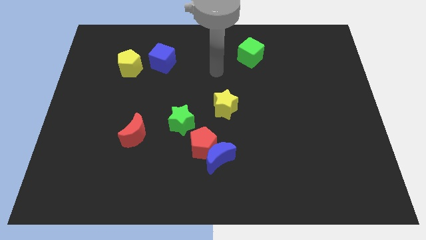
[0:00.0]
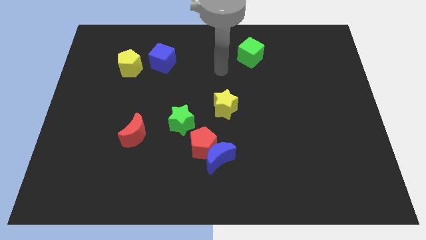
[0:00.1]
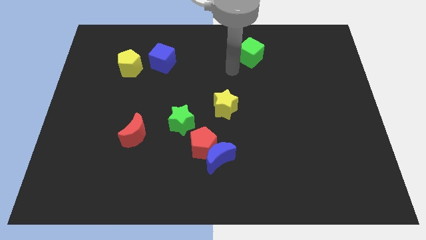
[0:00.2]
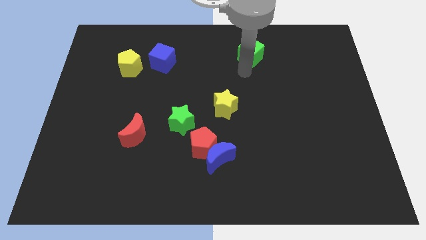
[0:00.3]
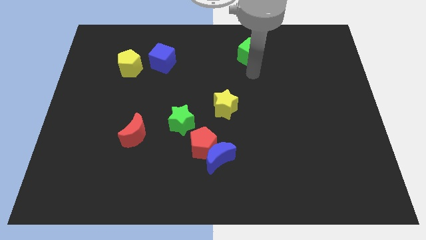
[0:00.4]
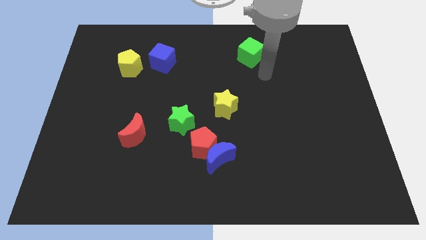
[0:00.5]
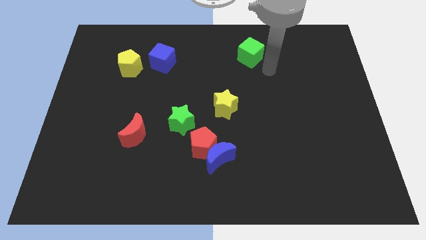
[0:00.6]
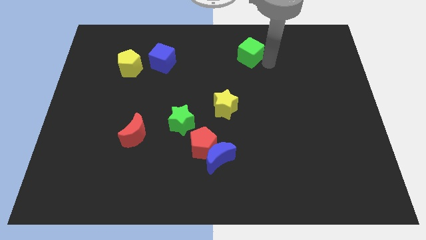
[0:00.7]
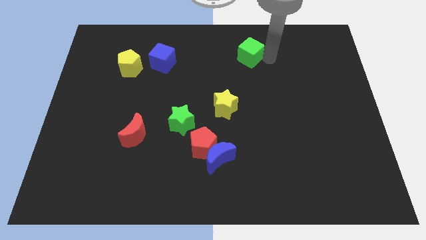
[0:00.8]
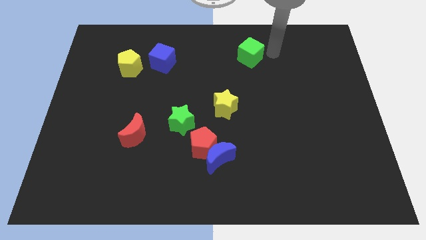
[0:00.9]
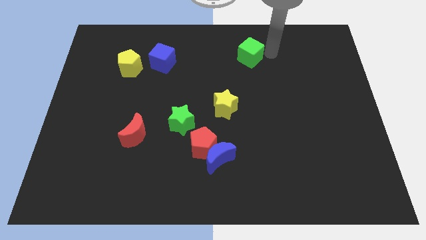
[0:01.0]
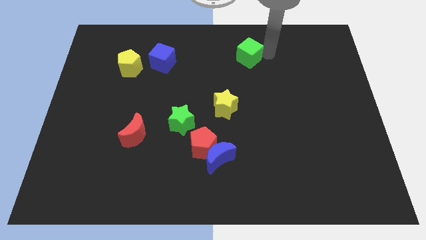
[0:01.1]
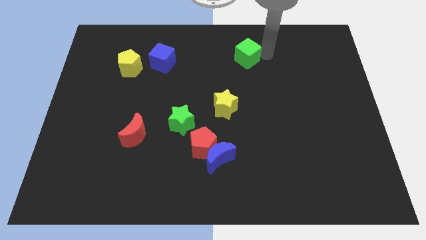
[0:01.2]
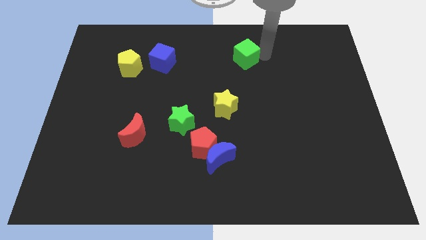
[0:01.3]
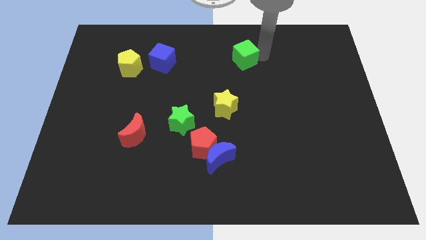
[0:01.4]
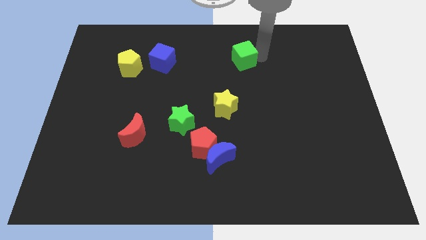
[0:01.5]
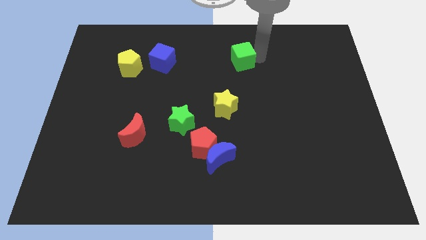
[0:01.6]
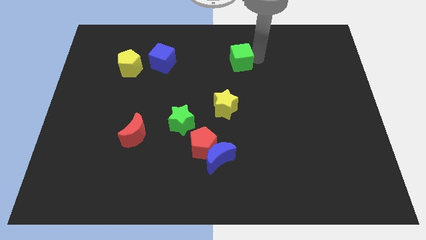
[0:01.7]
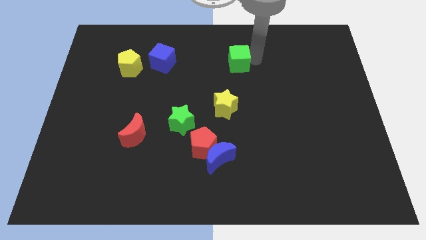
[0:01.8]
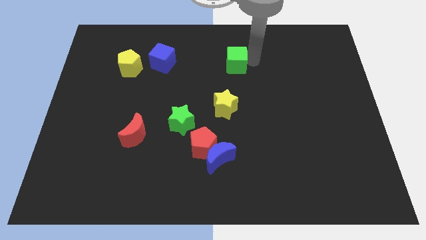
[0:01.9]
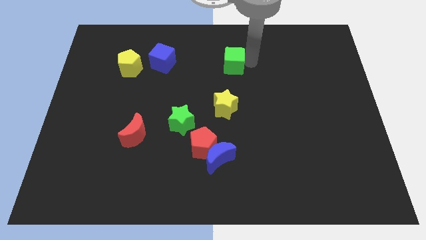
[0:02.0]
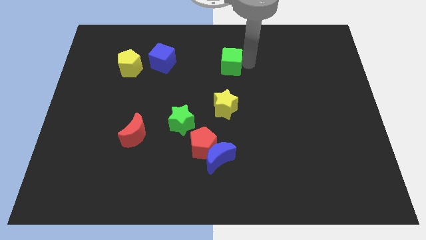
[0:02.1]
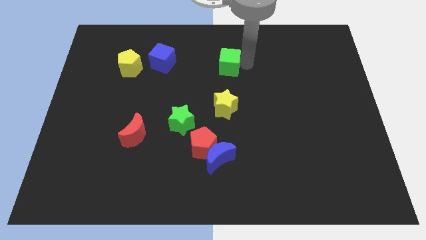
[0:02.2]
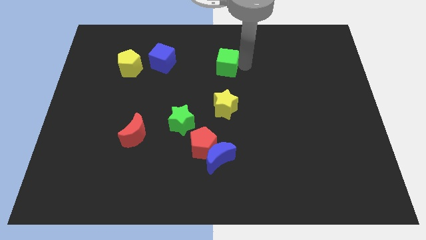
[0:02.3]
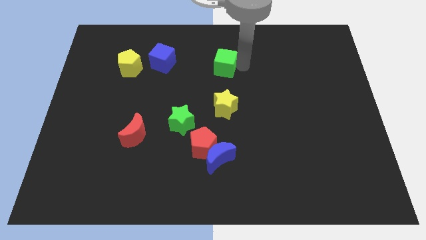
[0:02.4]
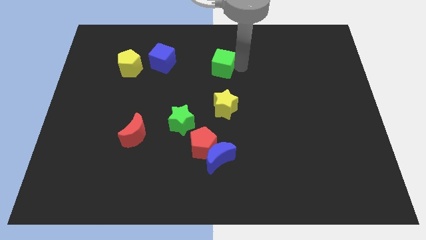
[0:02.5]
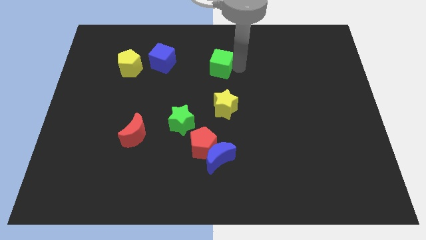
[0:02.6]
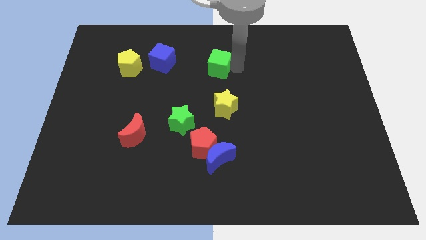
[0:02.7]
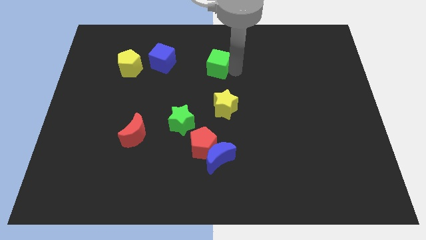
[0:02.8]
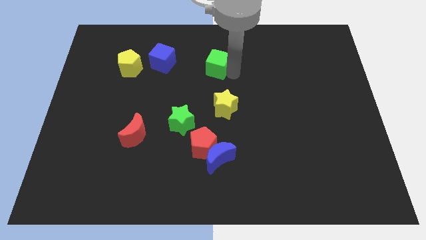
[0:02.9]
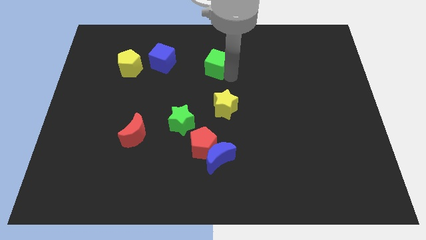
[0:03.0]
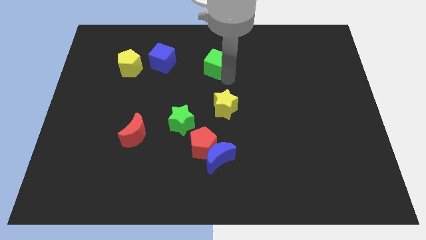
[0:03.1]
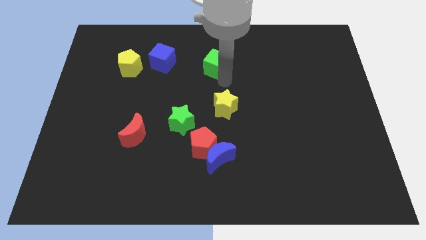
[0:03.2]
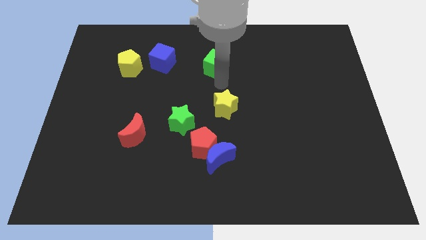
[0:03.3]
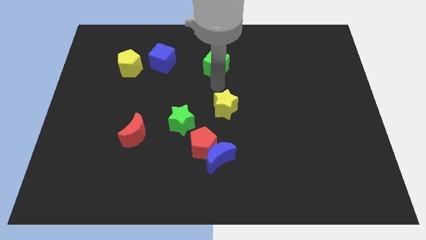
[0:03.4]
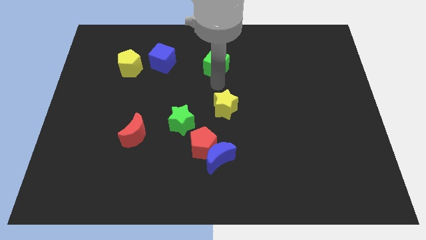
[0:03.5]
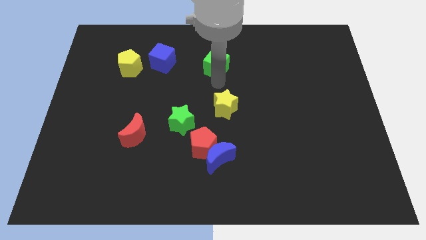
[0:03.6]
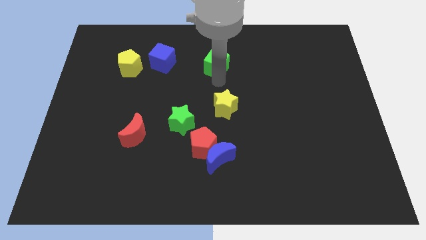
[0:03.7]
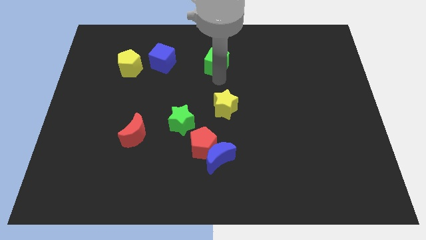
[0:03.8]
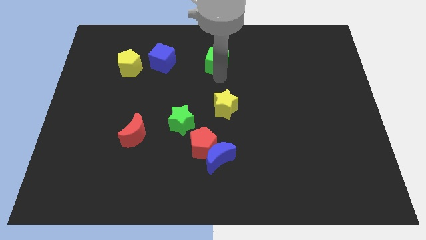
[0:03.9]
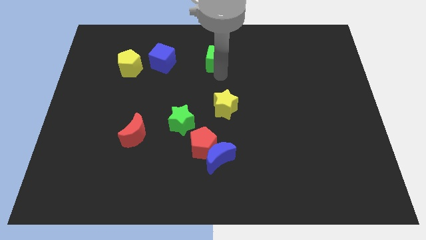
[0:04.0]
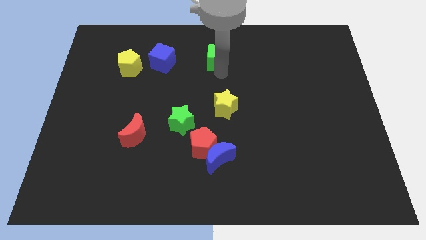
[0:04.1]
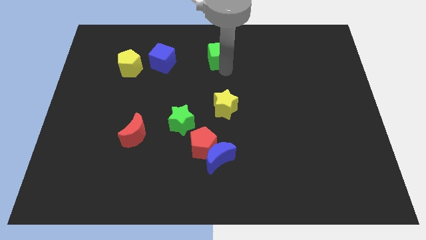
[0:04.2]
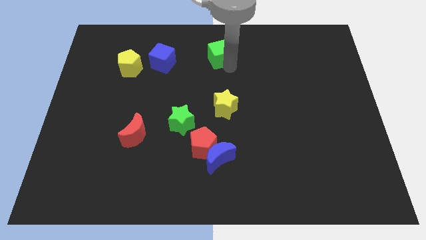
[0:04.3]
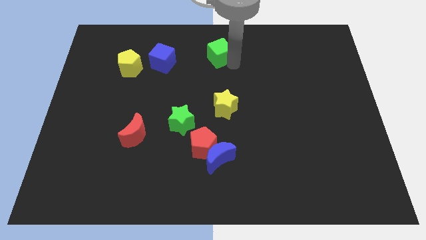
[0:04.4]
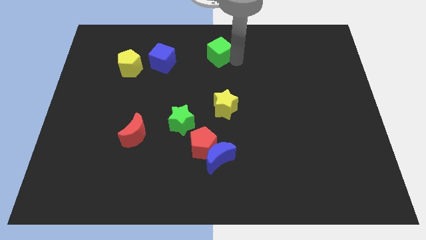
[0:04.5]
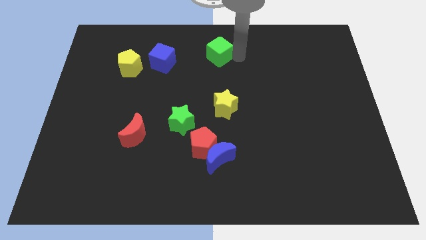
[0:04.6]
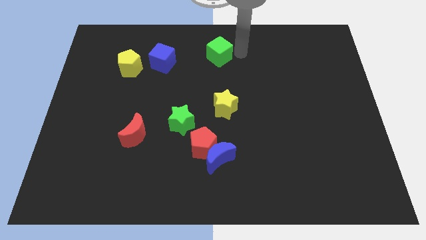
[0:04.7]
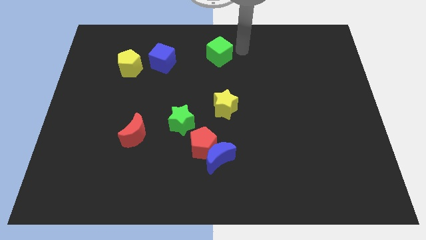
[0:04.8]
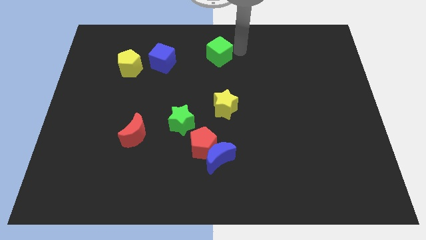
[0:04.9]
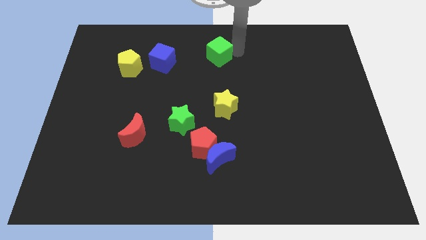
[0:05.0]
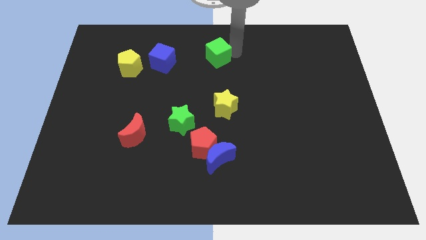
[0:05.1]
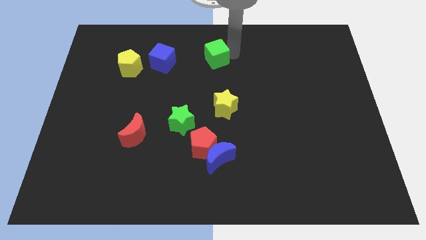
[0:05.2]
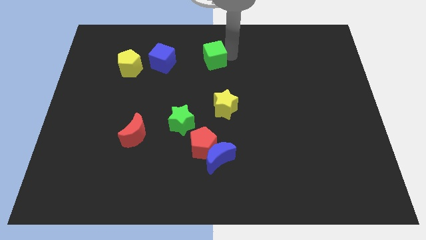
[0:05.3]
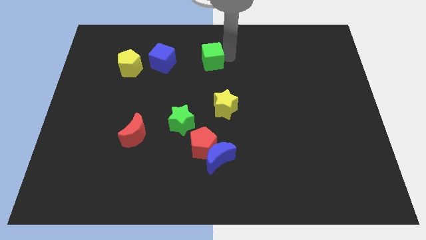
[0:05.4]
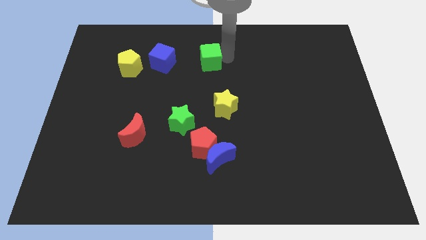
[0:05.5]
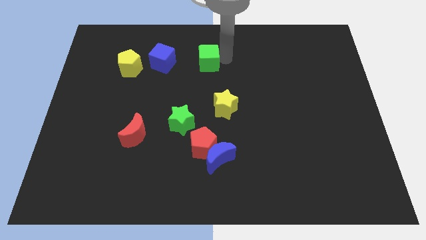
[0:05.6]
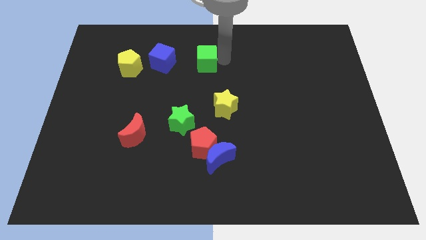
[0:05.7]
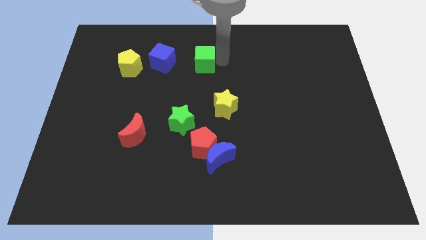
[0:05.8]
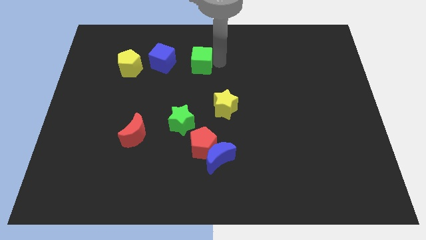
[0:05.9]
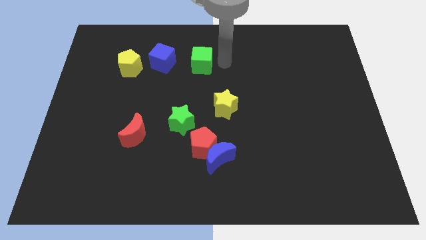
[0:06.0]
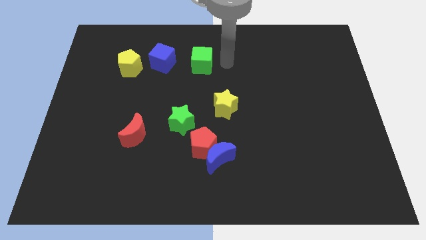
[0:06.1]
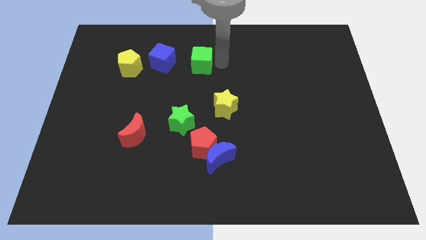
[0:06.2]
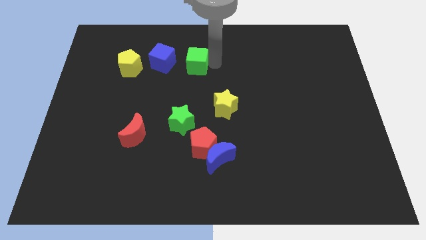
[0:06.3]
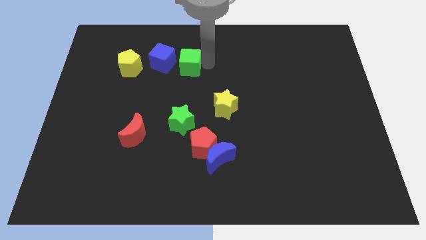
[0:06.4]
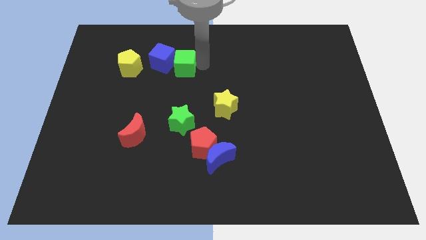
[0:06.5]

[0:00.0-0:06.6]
put the green cube towards the blue cube
